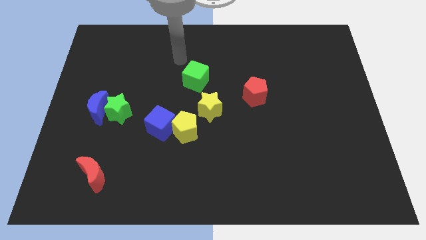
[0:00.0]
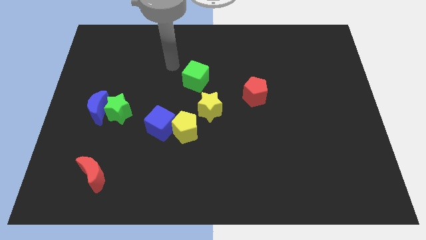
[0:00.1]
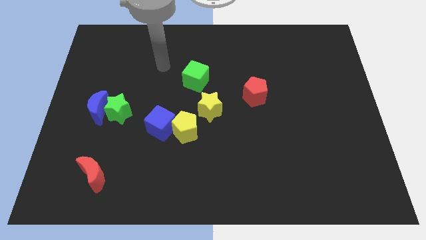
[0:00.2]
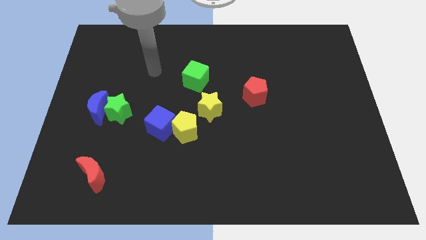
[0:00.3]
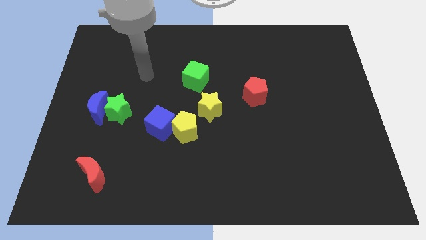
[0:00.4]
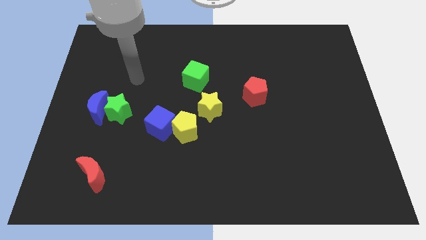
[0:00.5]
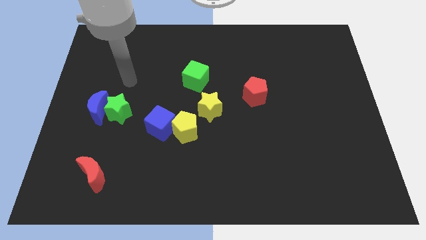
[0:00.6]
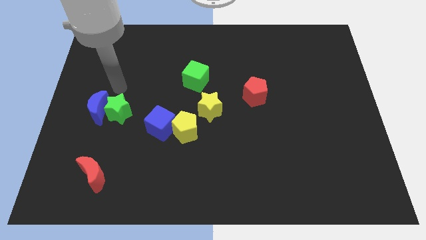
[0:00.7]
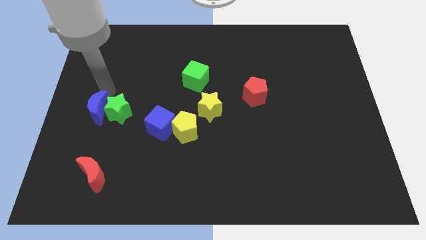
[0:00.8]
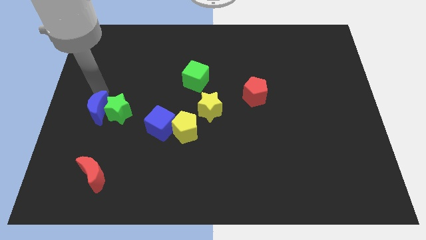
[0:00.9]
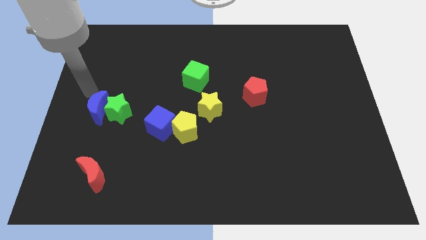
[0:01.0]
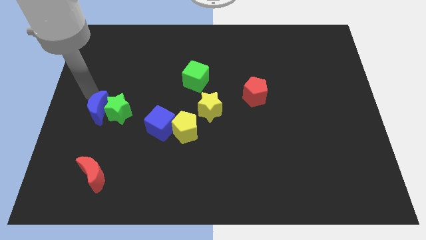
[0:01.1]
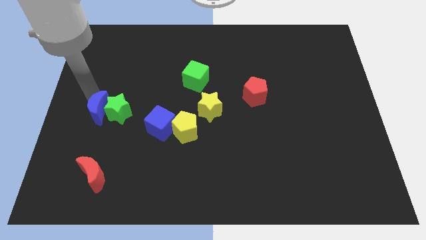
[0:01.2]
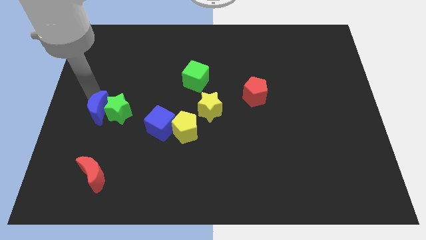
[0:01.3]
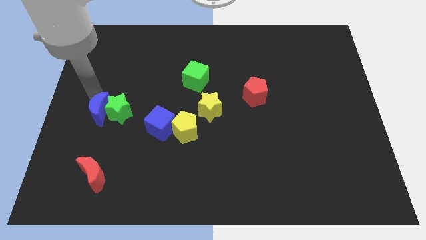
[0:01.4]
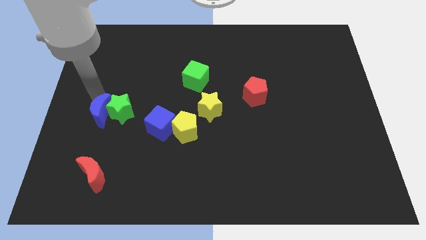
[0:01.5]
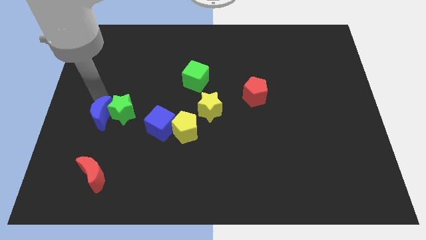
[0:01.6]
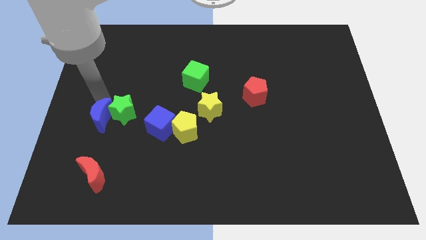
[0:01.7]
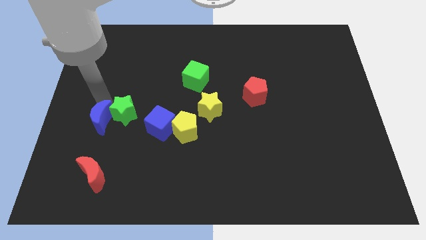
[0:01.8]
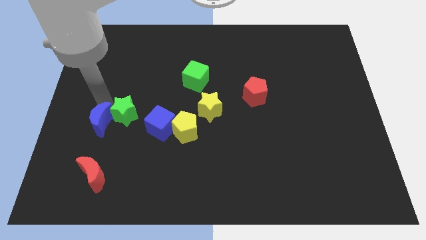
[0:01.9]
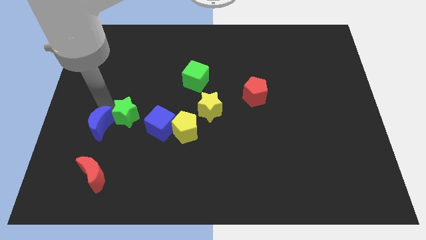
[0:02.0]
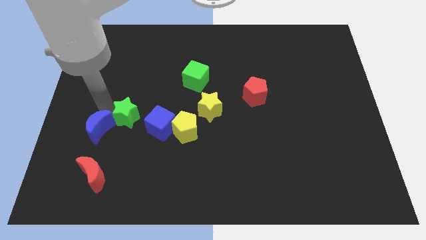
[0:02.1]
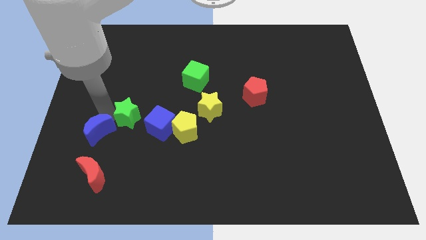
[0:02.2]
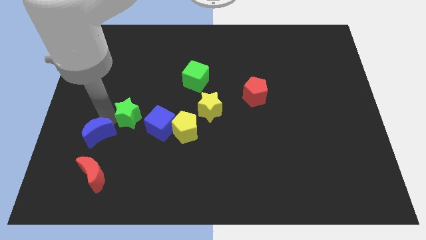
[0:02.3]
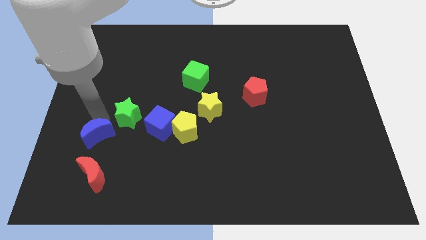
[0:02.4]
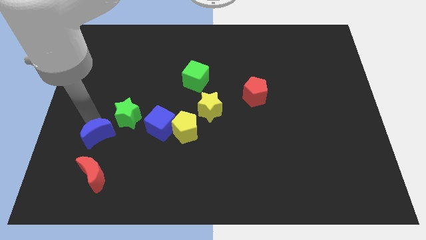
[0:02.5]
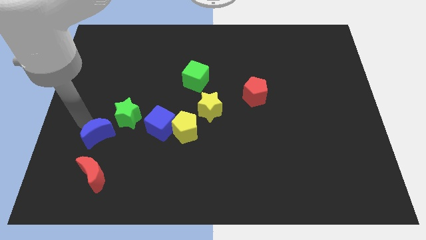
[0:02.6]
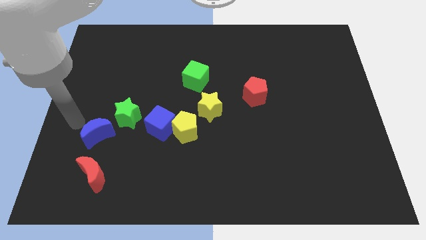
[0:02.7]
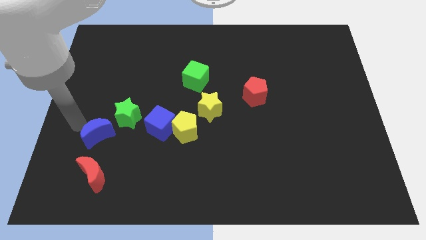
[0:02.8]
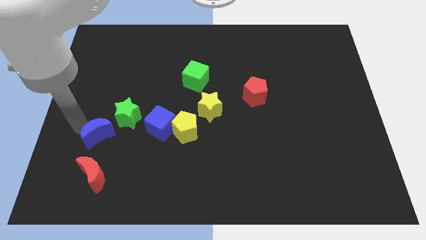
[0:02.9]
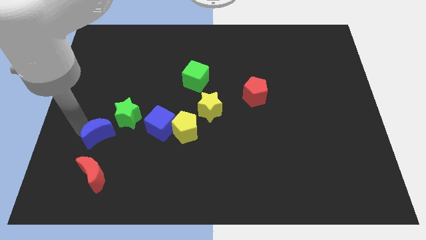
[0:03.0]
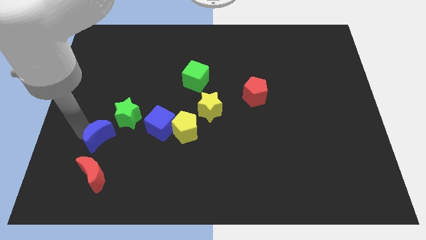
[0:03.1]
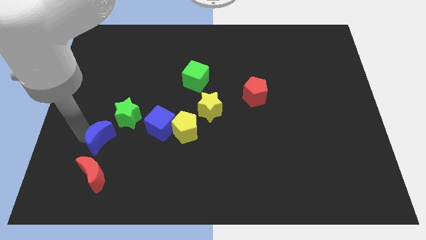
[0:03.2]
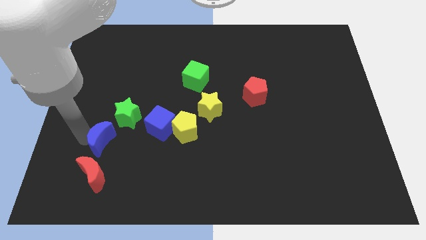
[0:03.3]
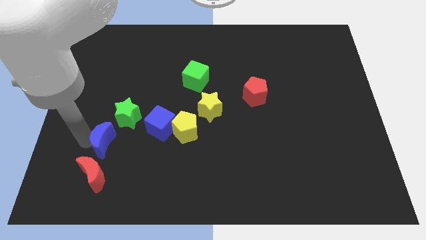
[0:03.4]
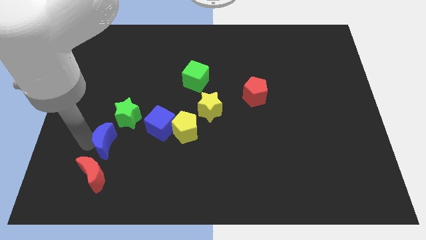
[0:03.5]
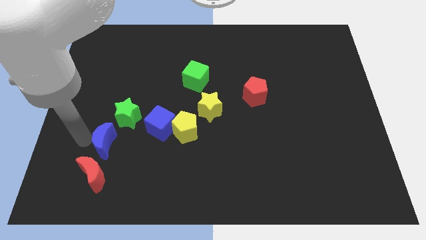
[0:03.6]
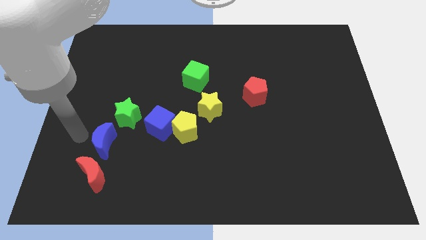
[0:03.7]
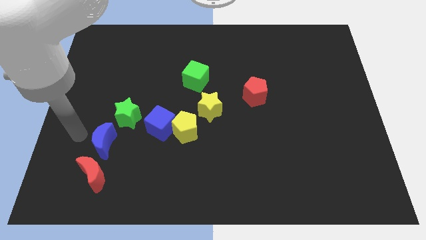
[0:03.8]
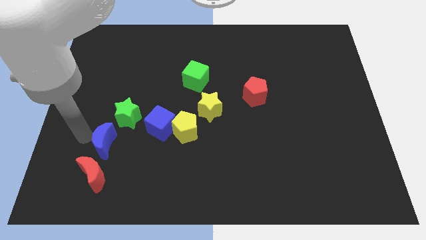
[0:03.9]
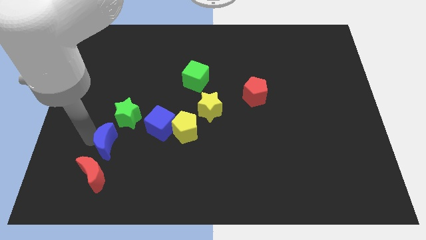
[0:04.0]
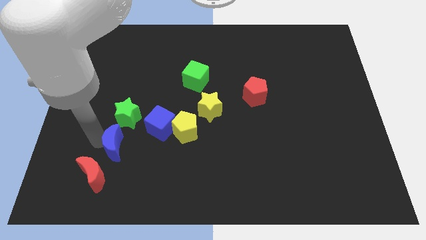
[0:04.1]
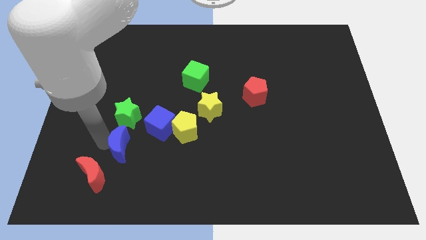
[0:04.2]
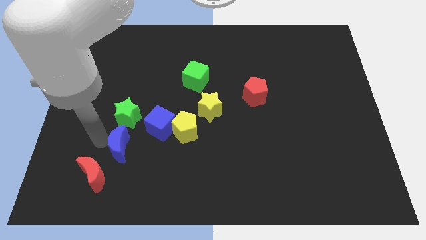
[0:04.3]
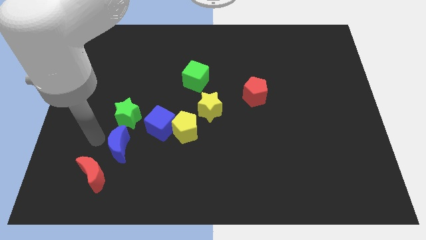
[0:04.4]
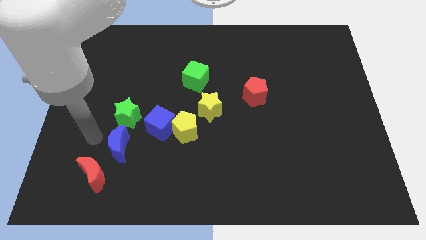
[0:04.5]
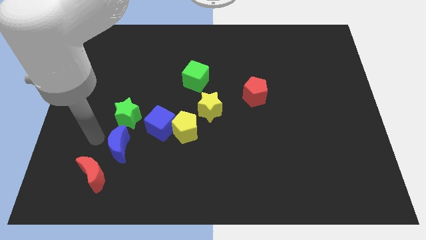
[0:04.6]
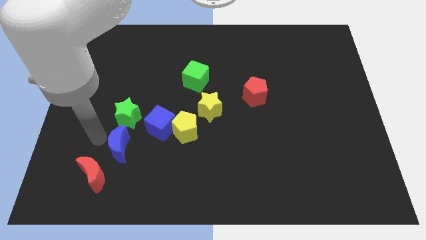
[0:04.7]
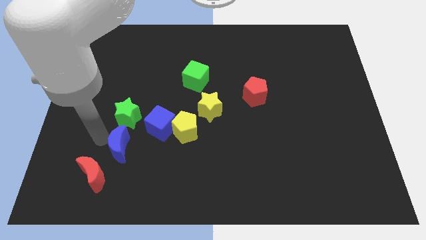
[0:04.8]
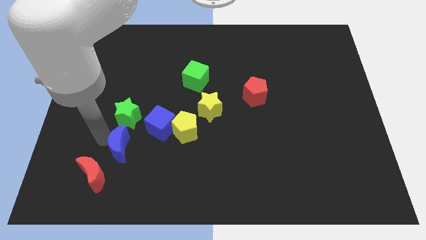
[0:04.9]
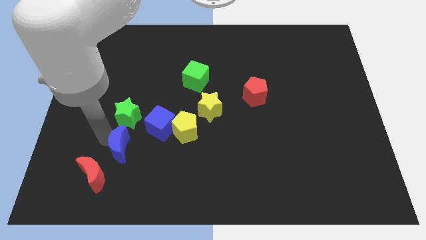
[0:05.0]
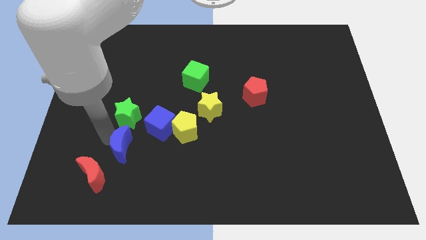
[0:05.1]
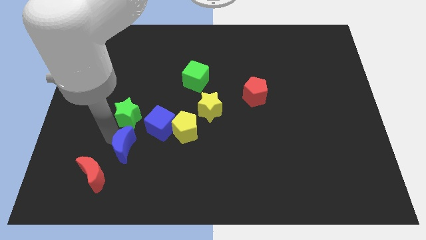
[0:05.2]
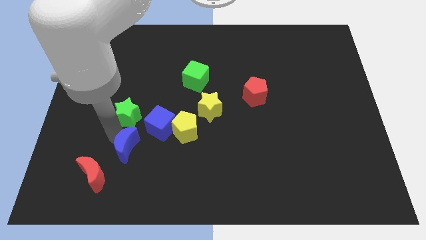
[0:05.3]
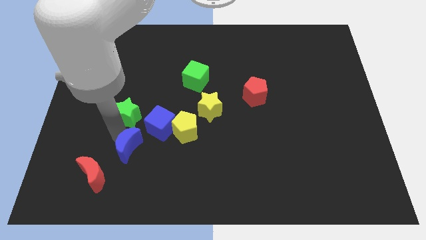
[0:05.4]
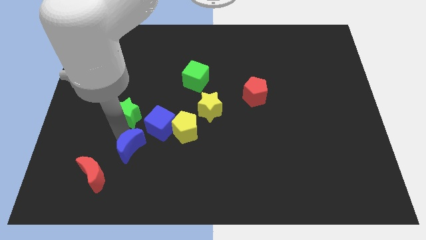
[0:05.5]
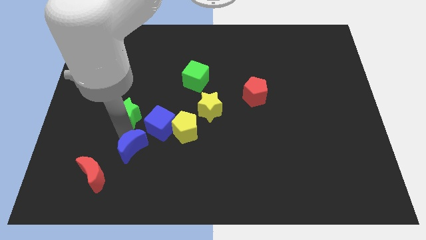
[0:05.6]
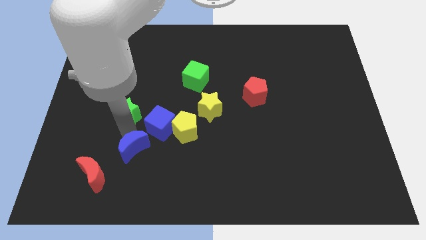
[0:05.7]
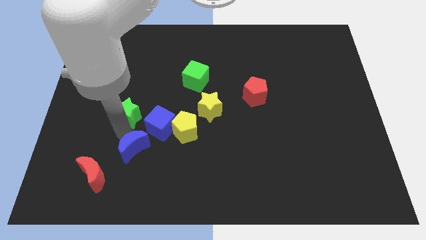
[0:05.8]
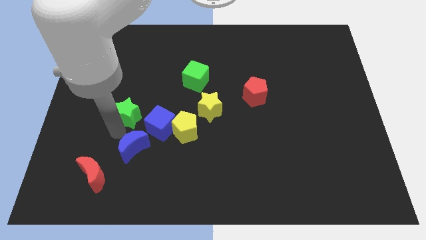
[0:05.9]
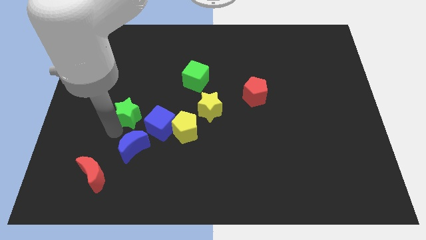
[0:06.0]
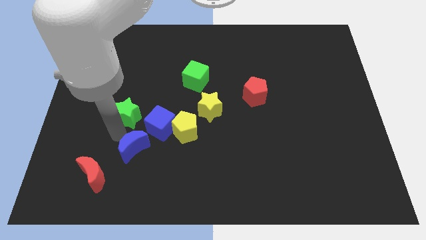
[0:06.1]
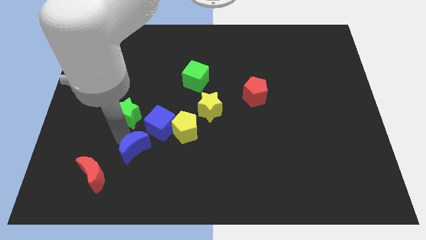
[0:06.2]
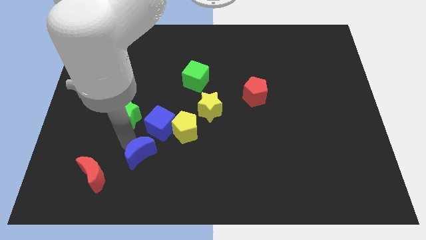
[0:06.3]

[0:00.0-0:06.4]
move the blue moon to the bottom side of the blue cube
